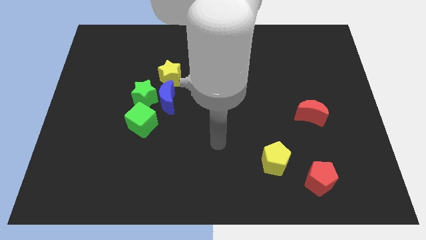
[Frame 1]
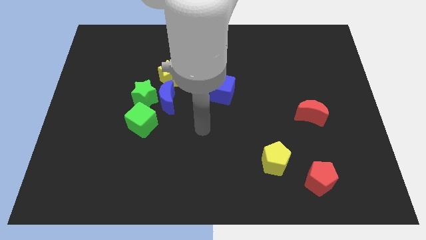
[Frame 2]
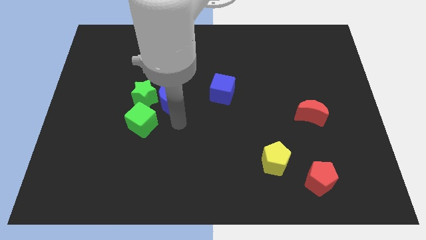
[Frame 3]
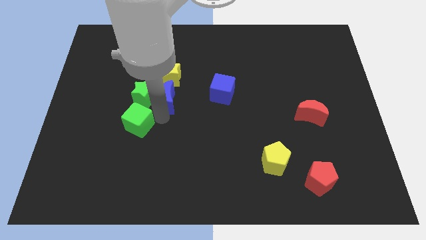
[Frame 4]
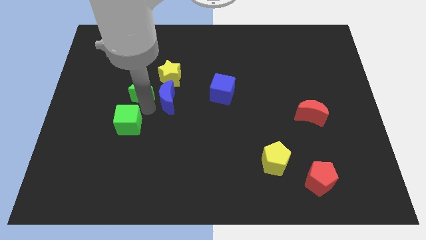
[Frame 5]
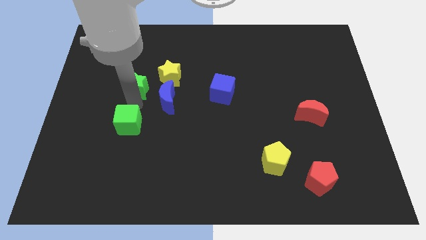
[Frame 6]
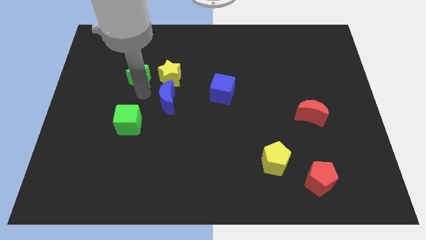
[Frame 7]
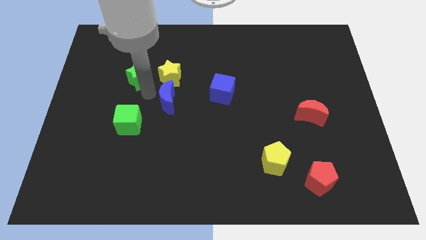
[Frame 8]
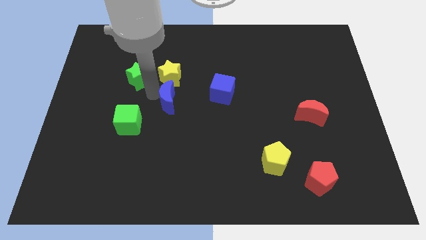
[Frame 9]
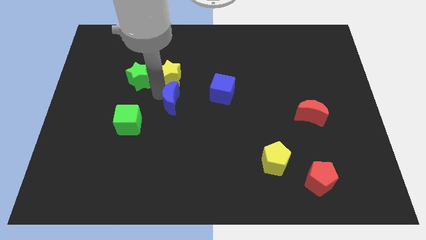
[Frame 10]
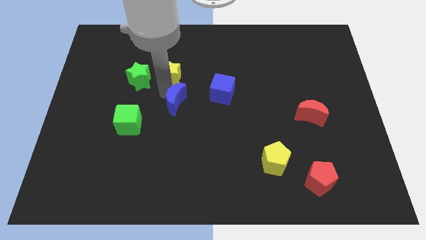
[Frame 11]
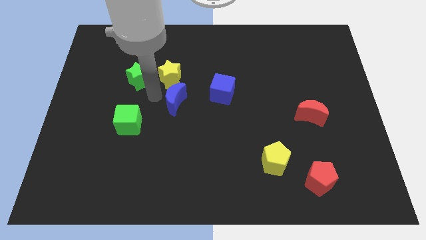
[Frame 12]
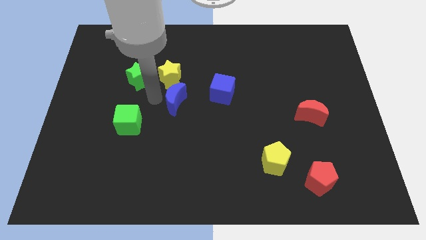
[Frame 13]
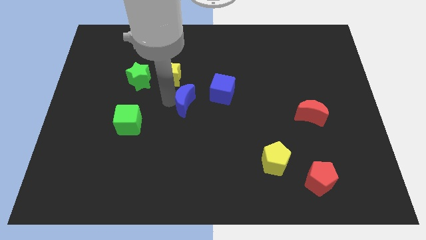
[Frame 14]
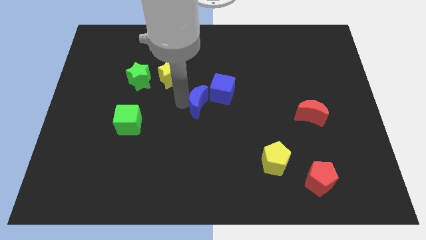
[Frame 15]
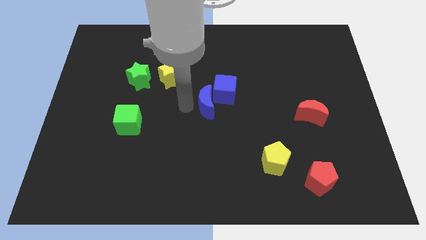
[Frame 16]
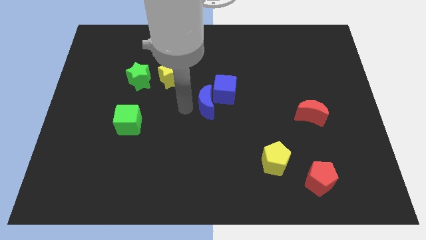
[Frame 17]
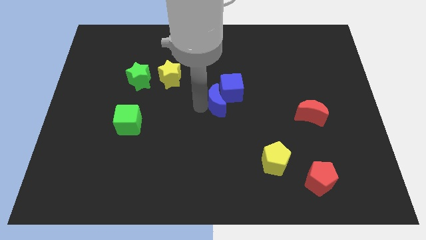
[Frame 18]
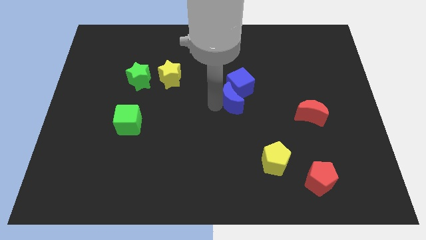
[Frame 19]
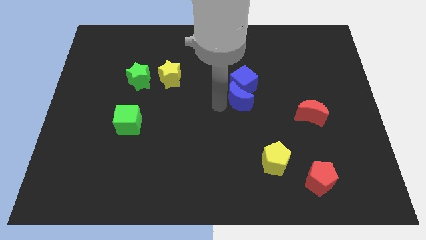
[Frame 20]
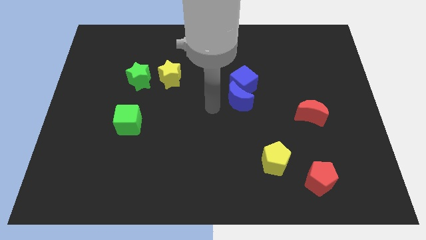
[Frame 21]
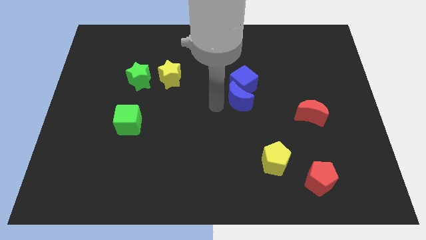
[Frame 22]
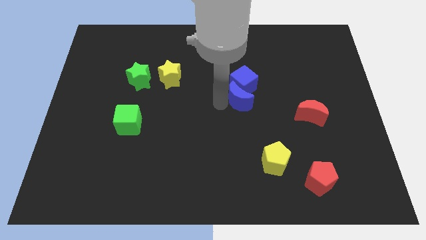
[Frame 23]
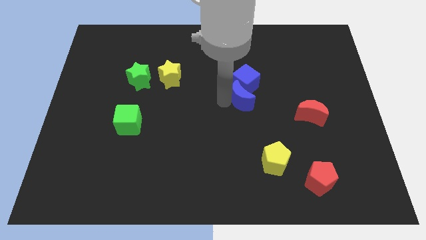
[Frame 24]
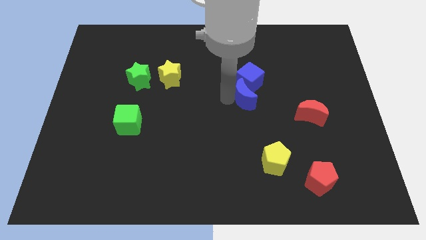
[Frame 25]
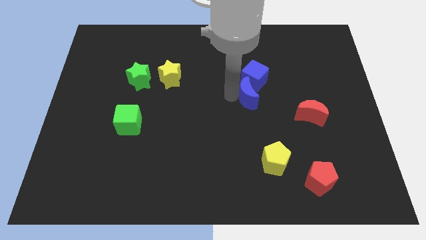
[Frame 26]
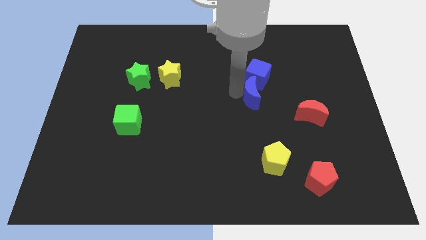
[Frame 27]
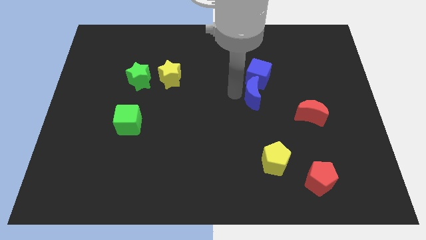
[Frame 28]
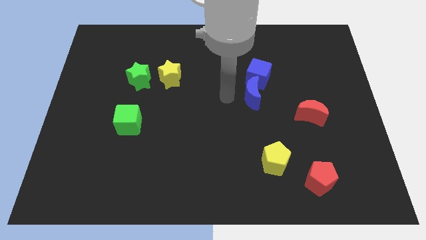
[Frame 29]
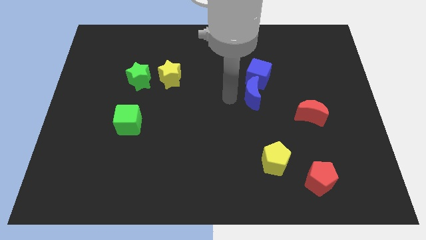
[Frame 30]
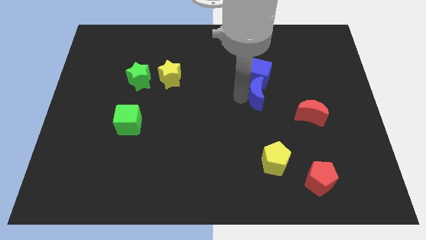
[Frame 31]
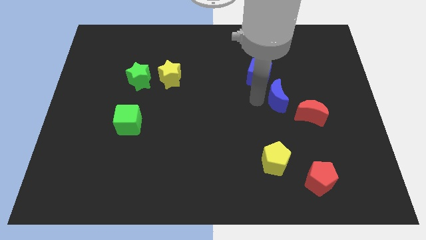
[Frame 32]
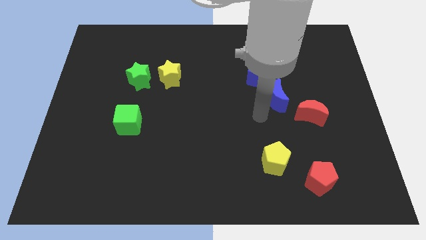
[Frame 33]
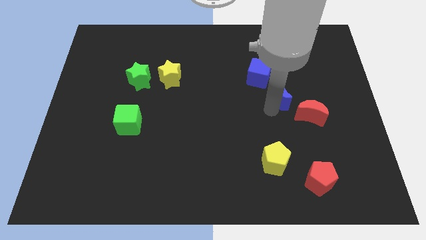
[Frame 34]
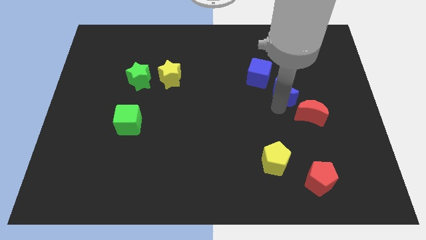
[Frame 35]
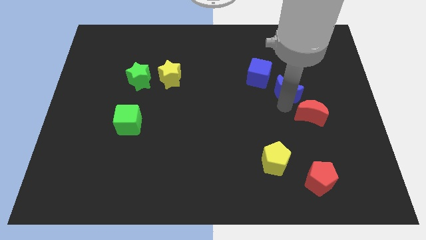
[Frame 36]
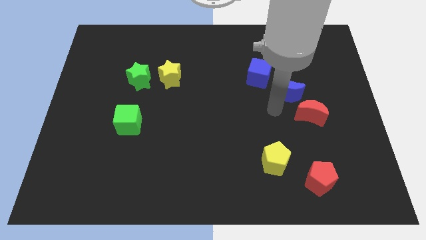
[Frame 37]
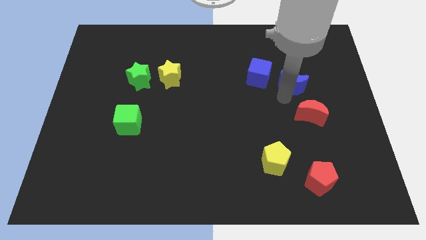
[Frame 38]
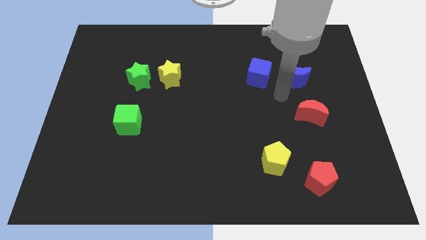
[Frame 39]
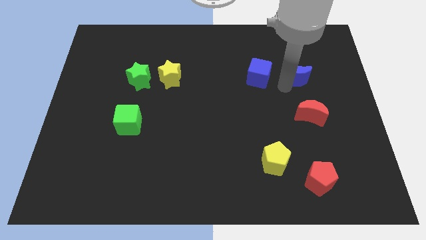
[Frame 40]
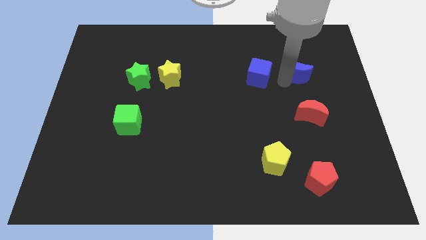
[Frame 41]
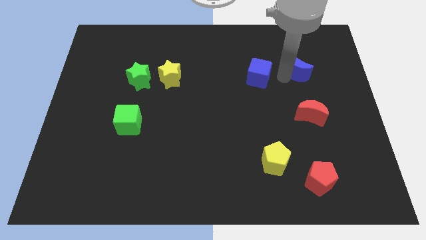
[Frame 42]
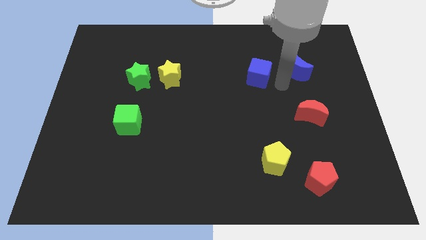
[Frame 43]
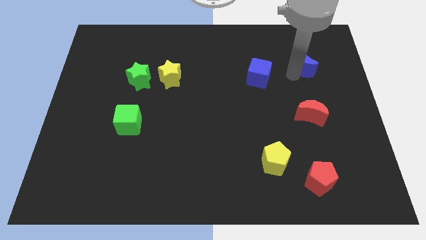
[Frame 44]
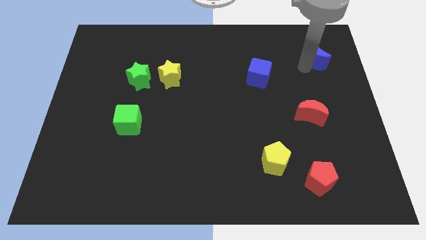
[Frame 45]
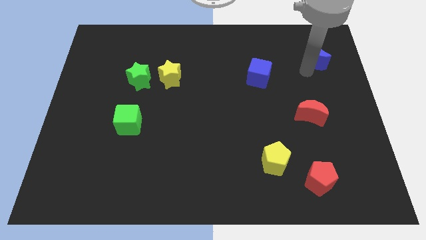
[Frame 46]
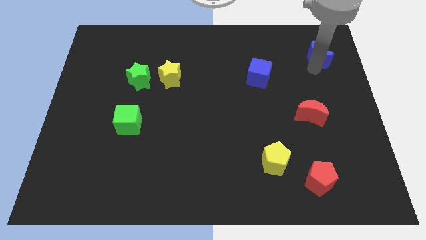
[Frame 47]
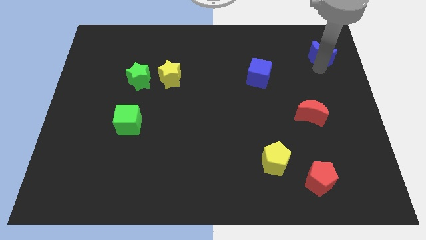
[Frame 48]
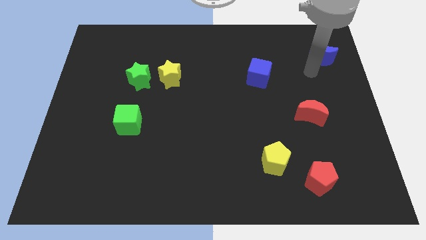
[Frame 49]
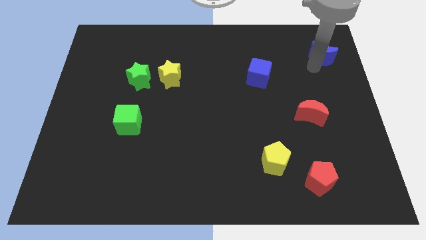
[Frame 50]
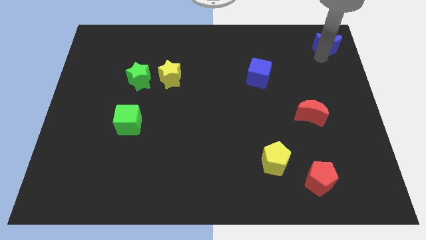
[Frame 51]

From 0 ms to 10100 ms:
put the blue moon to the top right corner
